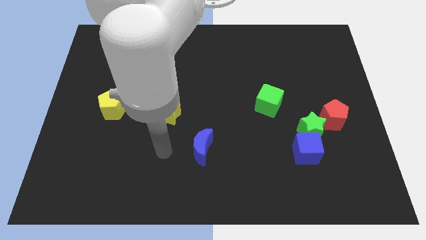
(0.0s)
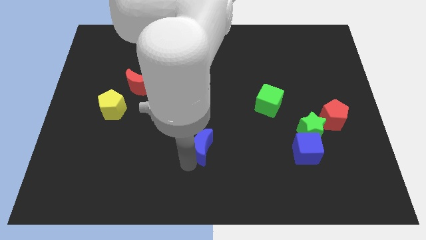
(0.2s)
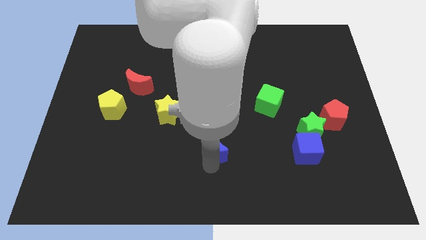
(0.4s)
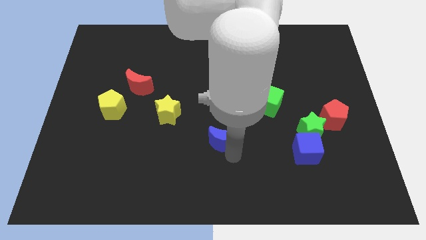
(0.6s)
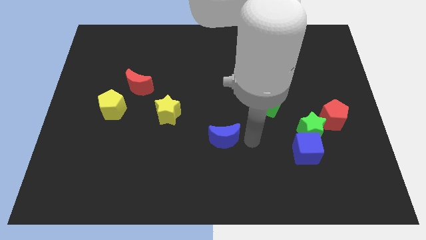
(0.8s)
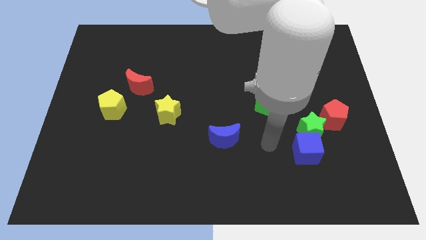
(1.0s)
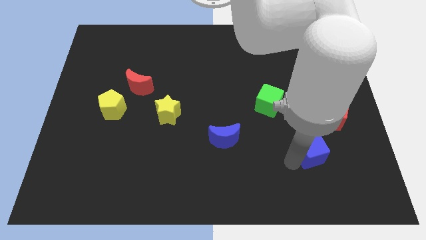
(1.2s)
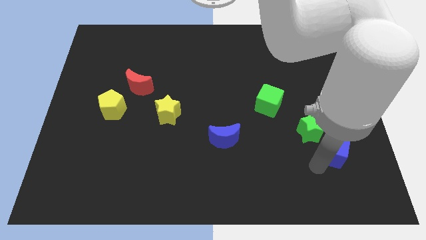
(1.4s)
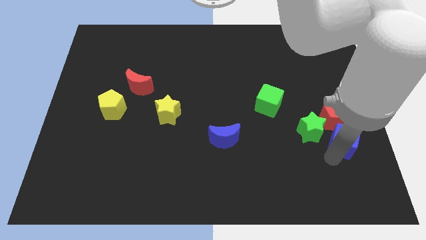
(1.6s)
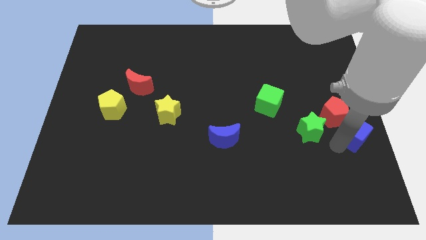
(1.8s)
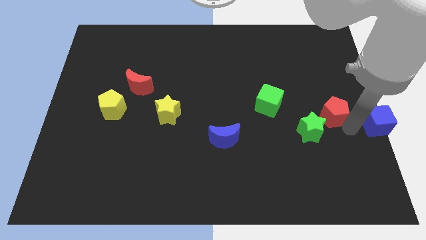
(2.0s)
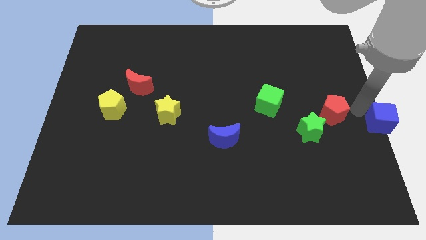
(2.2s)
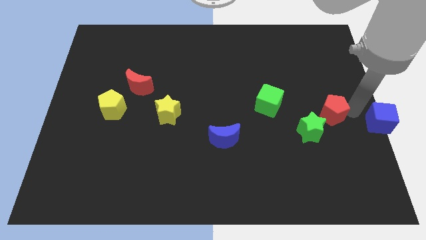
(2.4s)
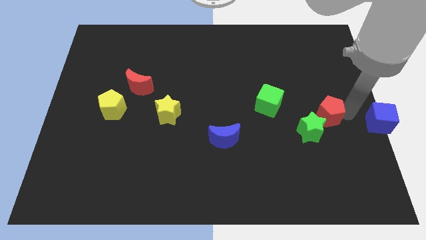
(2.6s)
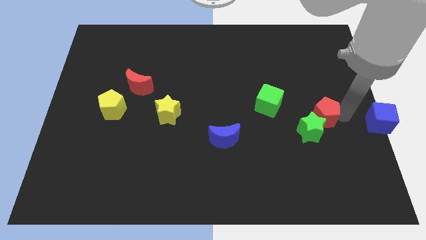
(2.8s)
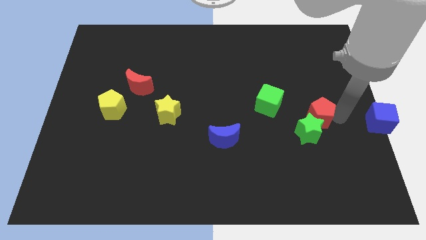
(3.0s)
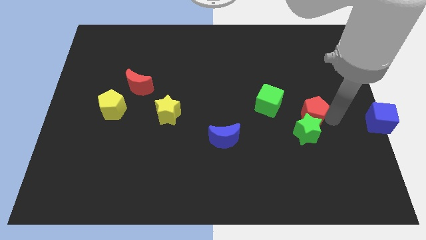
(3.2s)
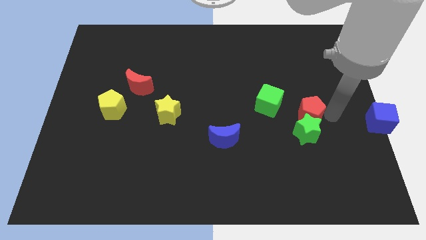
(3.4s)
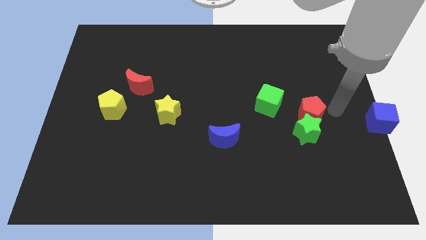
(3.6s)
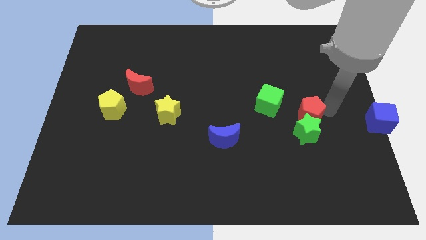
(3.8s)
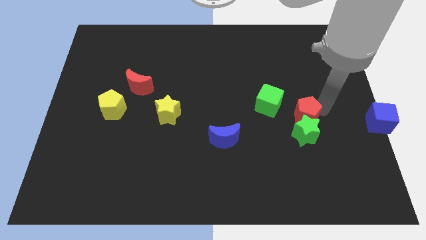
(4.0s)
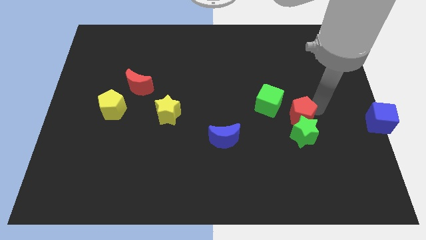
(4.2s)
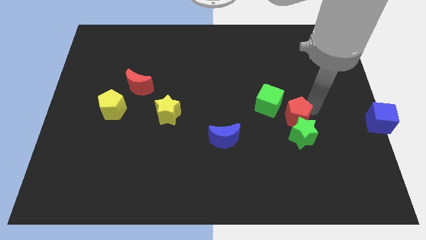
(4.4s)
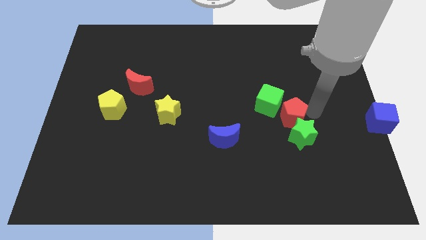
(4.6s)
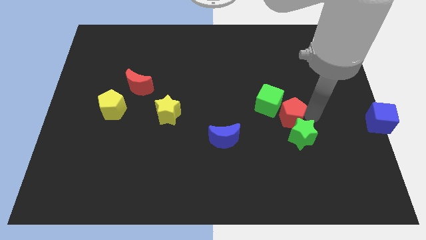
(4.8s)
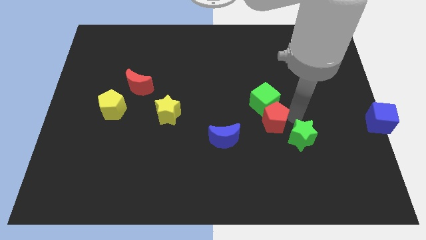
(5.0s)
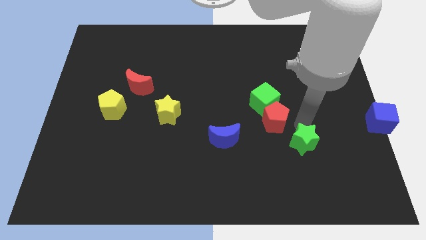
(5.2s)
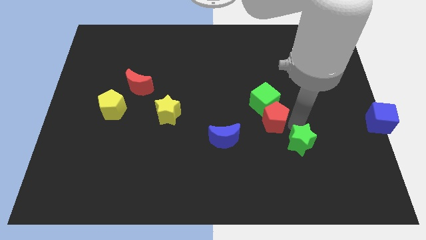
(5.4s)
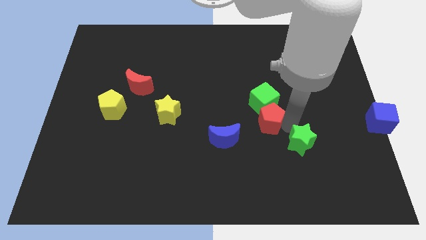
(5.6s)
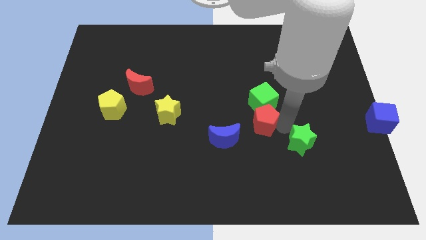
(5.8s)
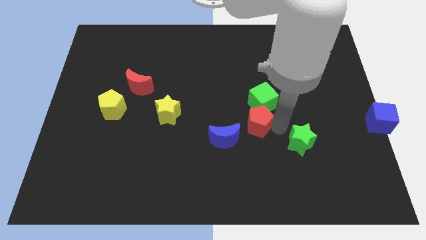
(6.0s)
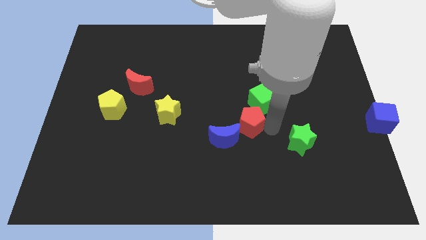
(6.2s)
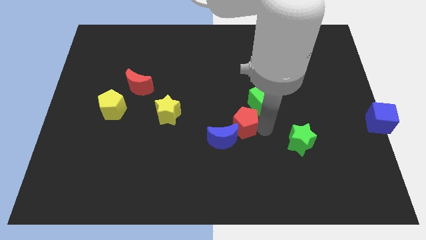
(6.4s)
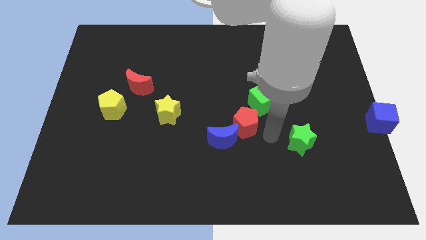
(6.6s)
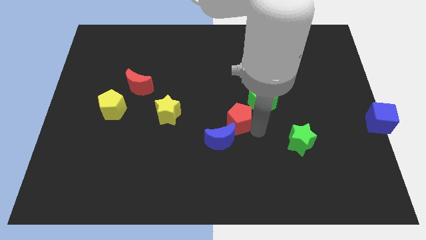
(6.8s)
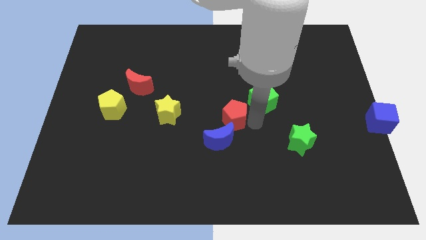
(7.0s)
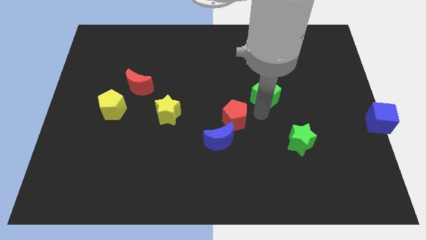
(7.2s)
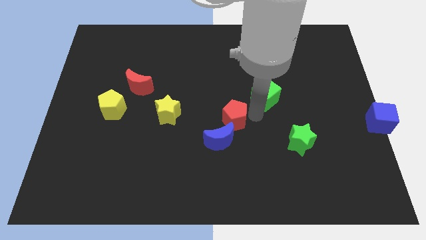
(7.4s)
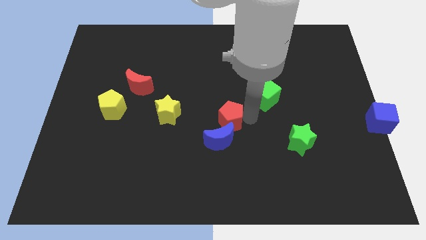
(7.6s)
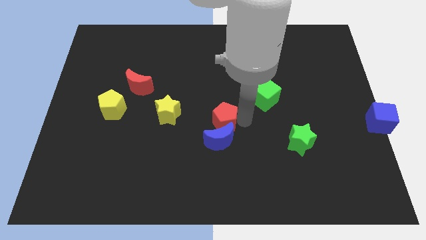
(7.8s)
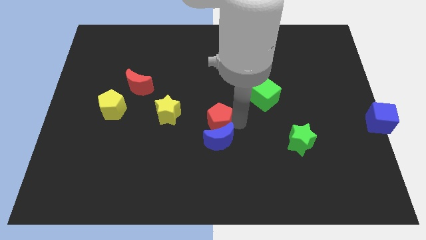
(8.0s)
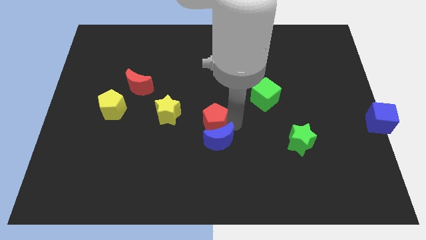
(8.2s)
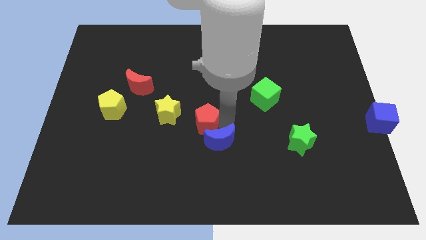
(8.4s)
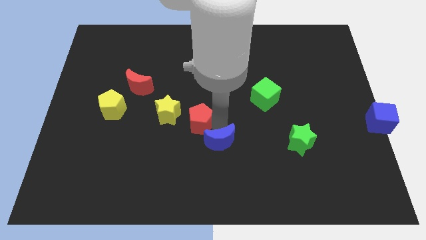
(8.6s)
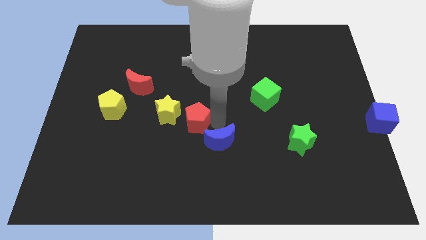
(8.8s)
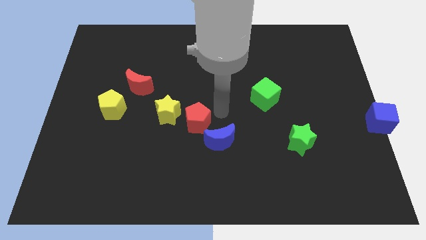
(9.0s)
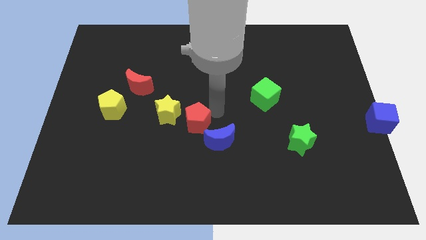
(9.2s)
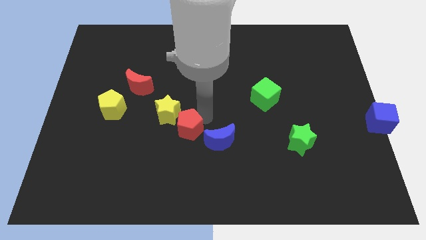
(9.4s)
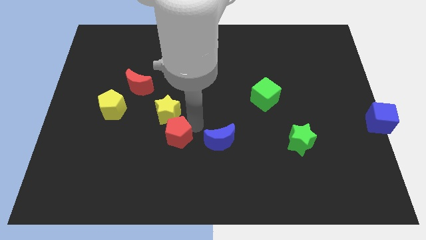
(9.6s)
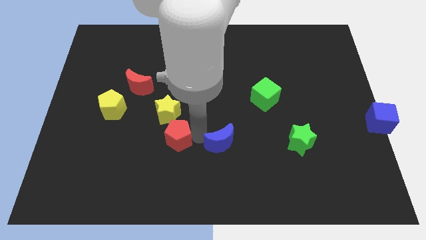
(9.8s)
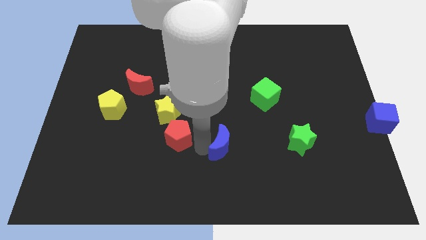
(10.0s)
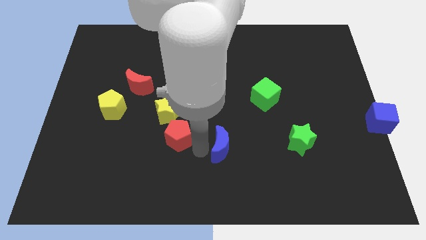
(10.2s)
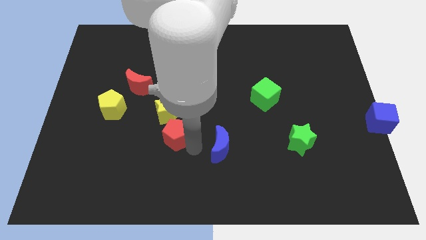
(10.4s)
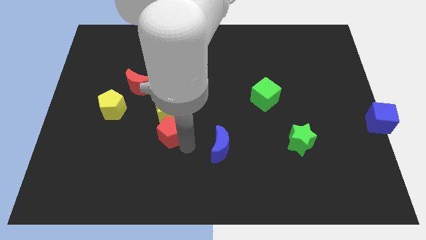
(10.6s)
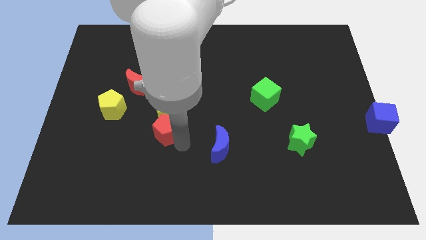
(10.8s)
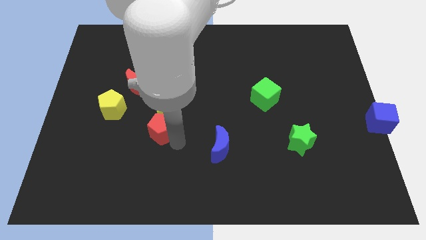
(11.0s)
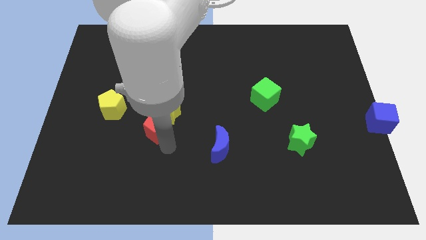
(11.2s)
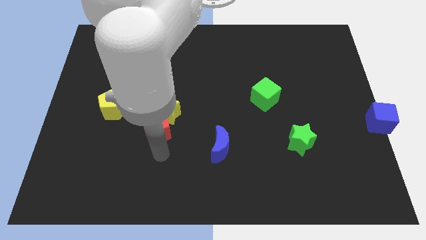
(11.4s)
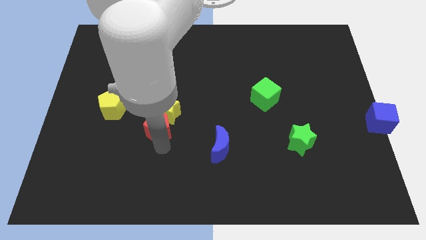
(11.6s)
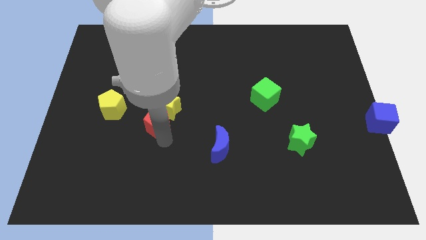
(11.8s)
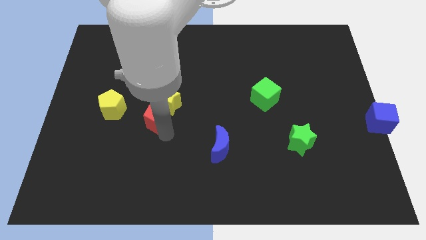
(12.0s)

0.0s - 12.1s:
slide the red pentagon to the bottom right of the red moon

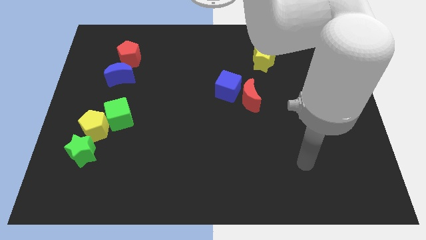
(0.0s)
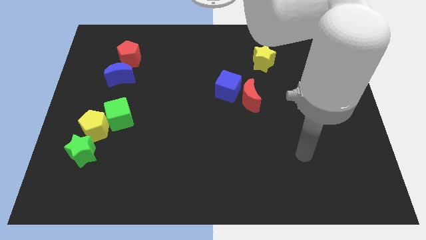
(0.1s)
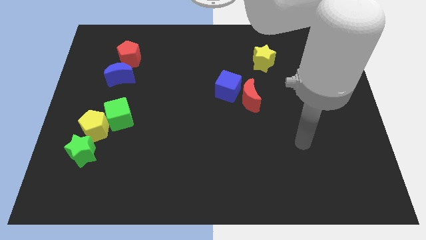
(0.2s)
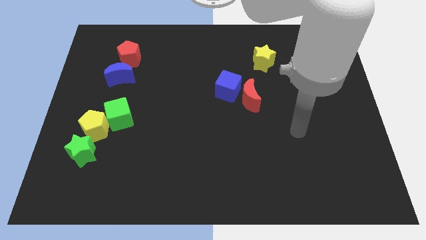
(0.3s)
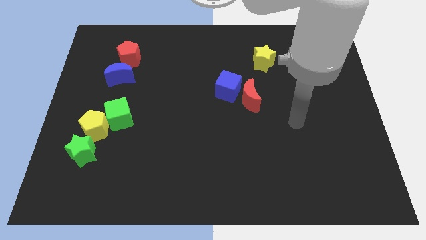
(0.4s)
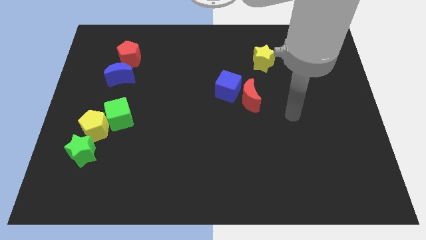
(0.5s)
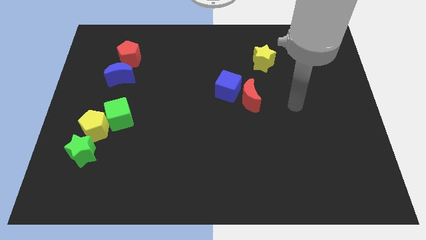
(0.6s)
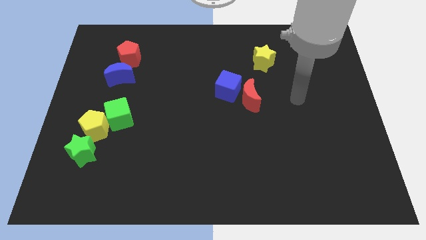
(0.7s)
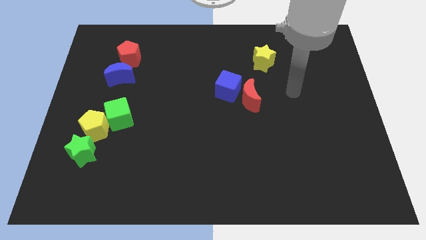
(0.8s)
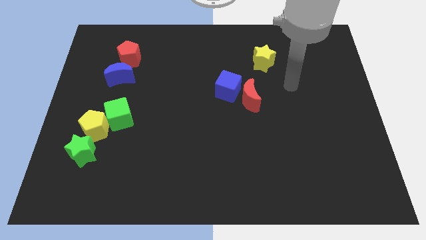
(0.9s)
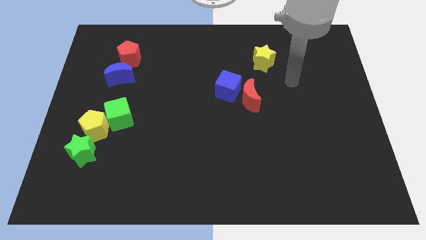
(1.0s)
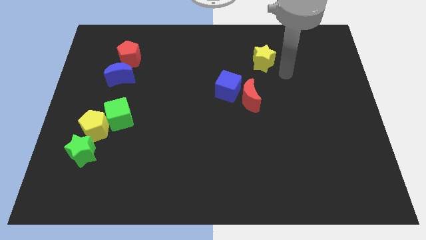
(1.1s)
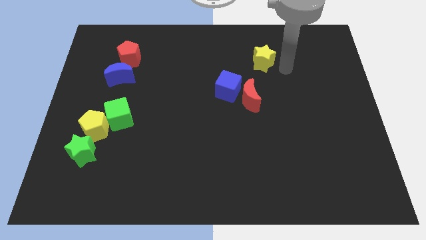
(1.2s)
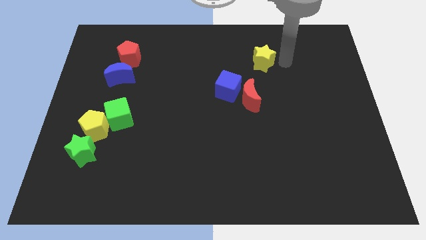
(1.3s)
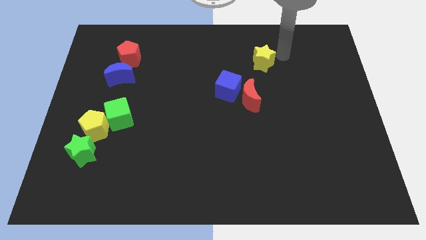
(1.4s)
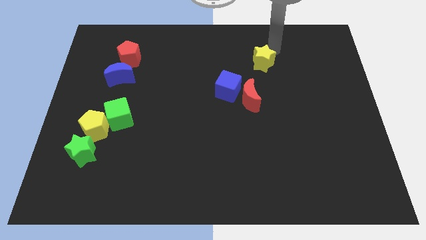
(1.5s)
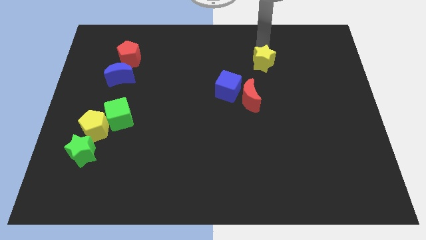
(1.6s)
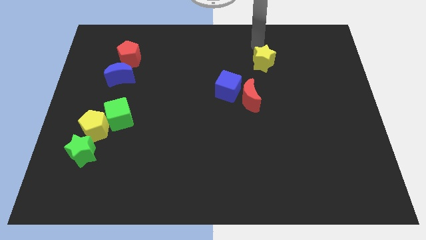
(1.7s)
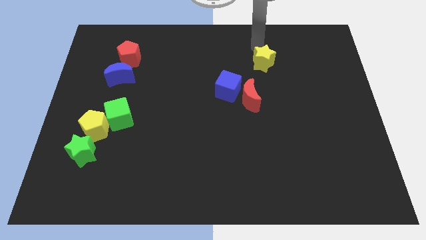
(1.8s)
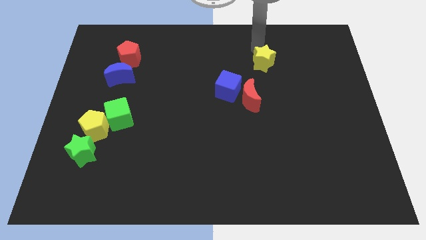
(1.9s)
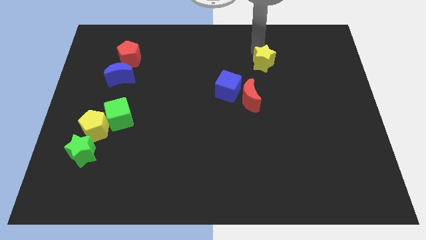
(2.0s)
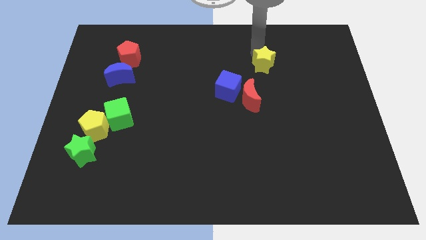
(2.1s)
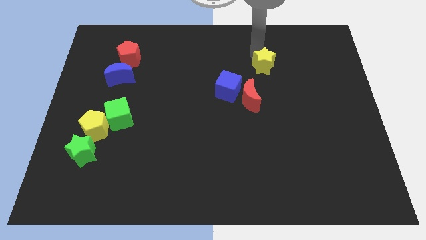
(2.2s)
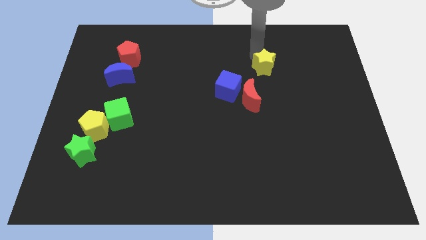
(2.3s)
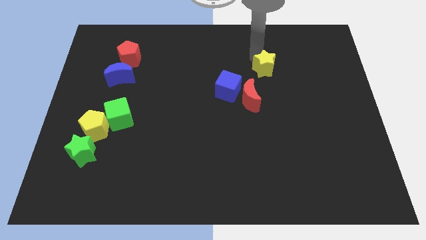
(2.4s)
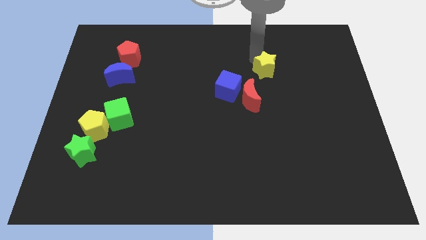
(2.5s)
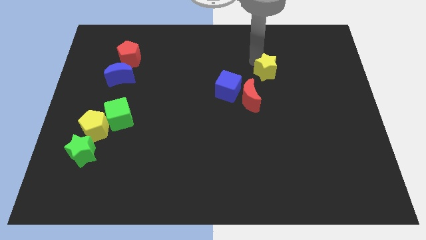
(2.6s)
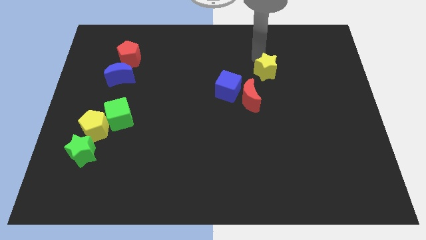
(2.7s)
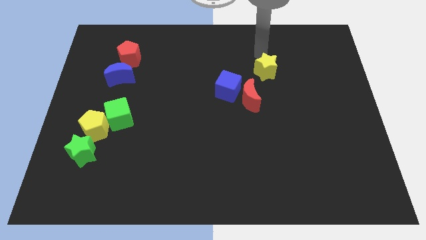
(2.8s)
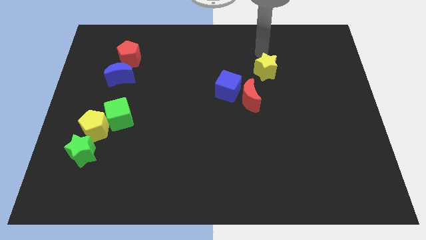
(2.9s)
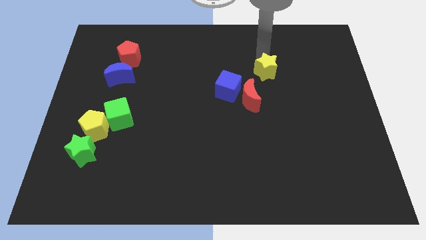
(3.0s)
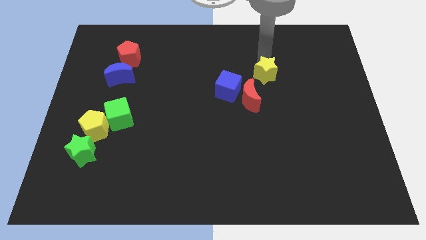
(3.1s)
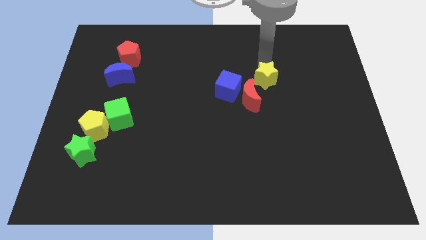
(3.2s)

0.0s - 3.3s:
push the yellow star just right of the blue cube
